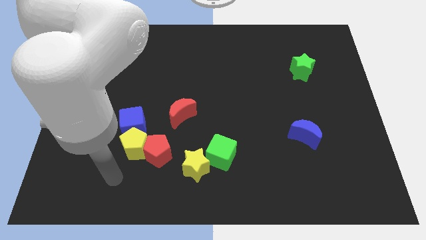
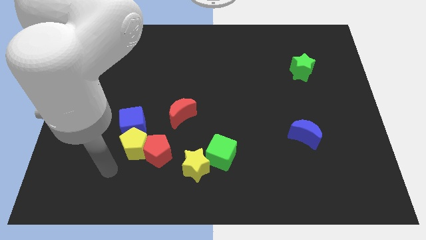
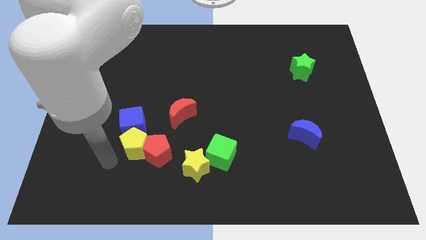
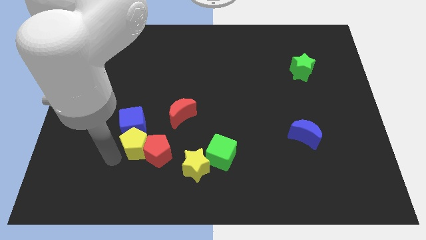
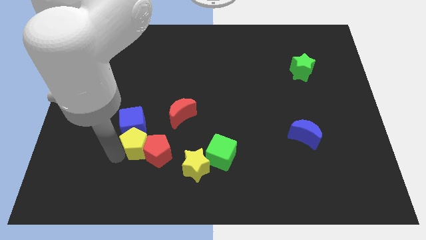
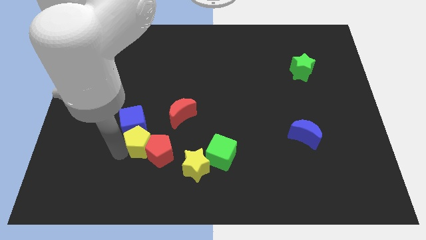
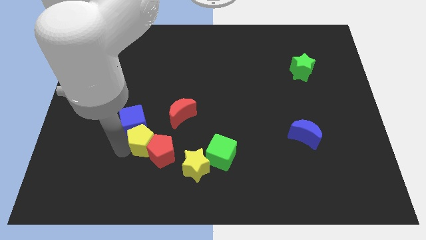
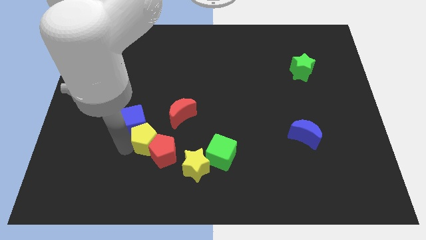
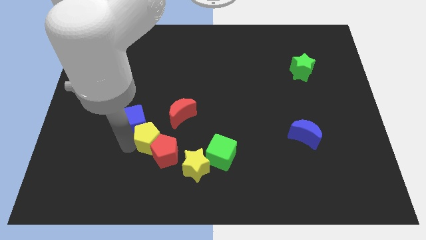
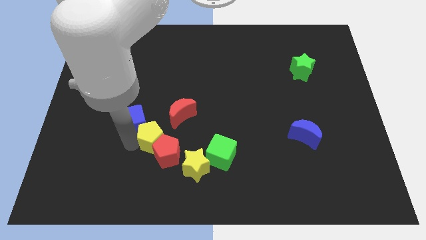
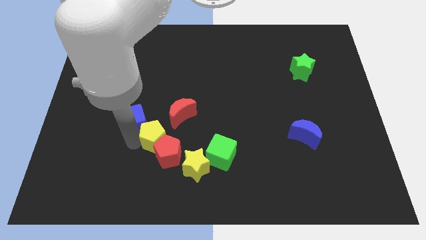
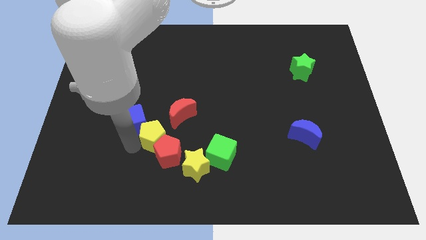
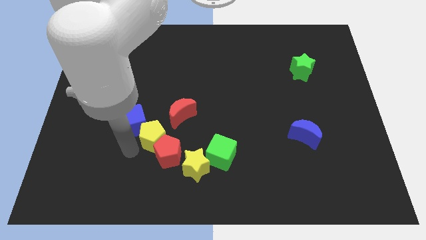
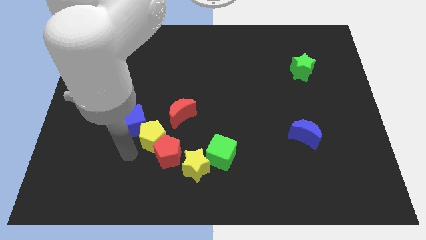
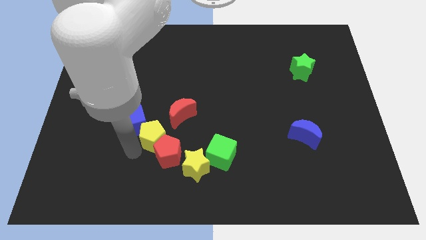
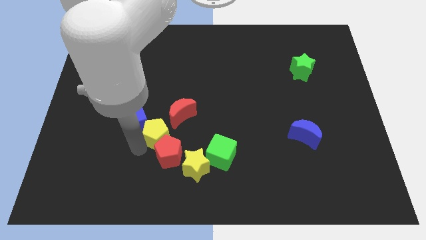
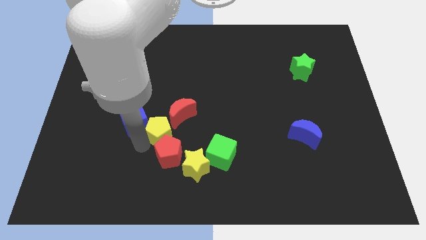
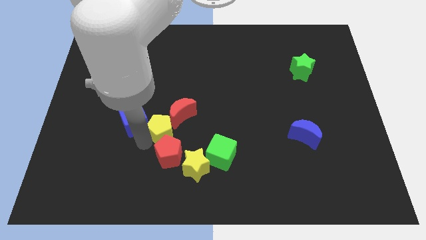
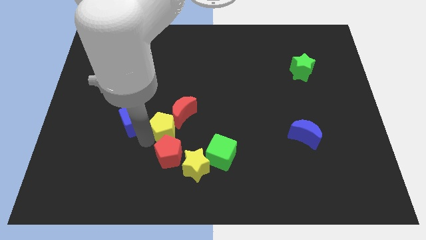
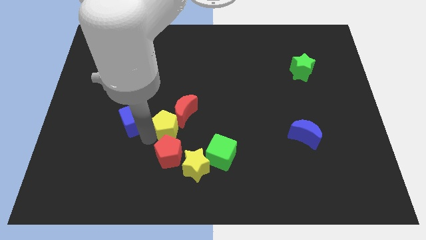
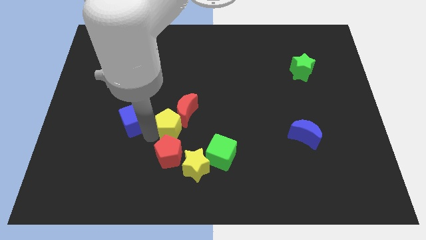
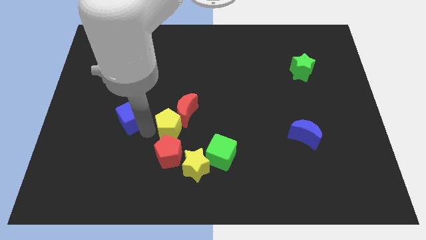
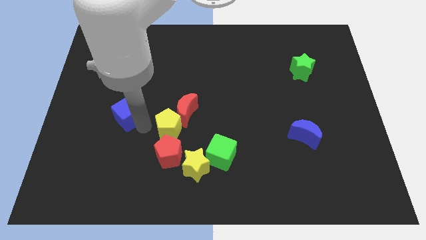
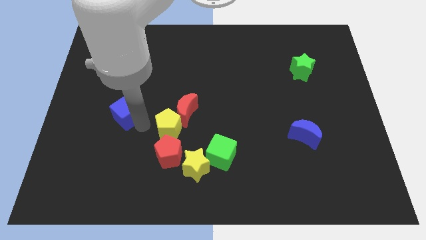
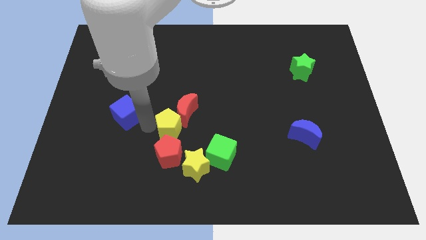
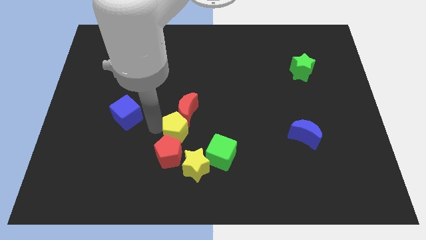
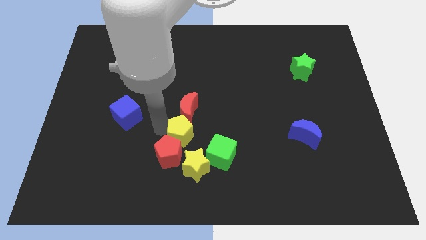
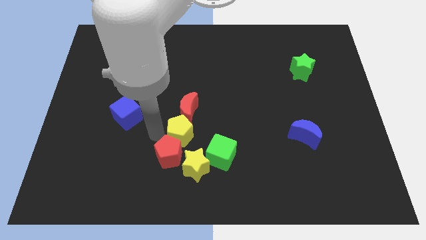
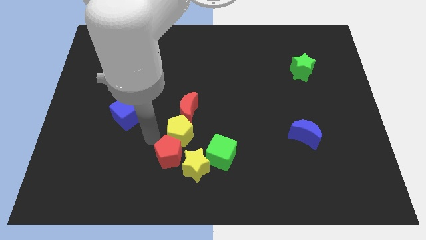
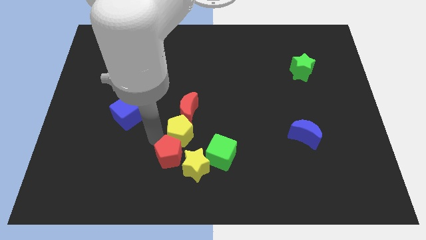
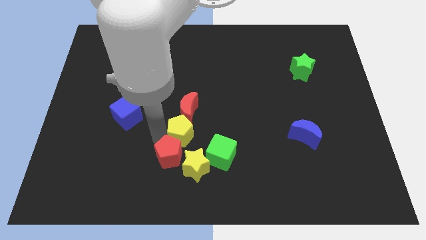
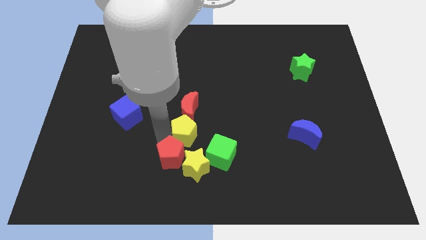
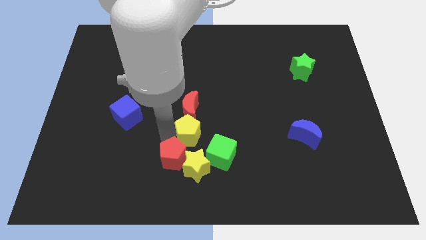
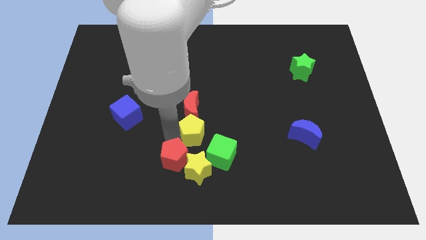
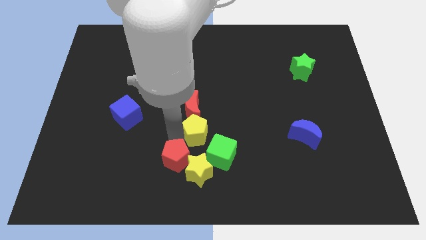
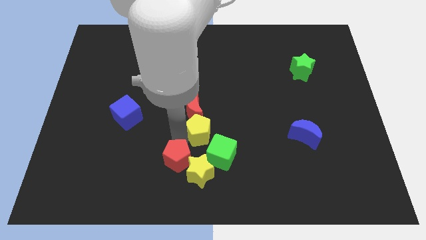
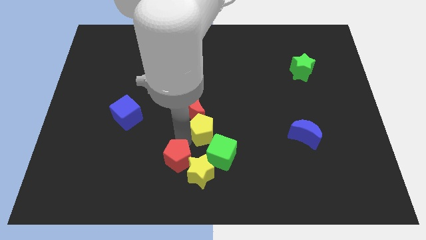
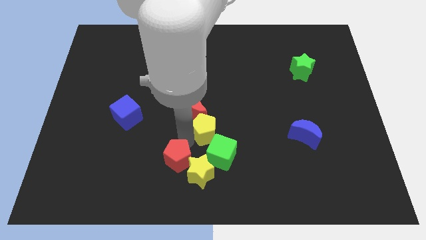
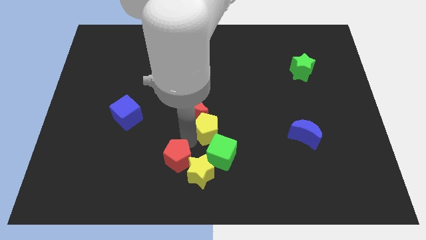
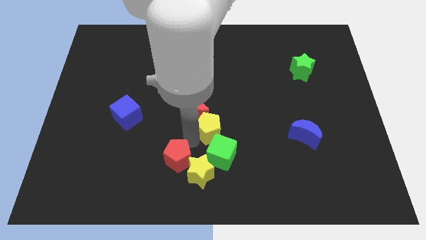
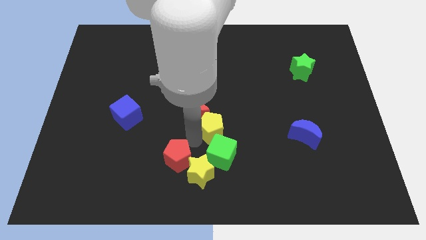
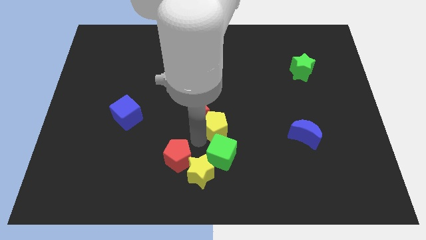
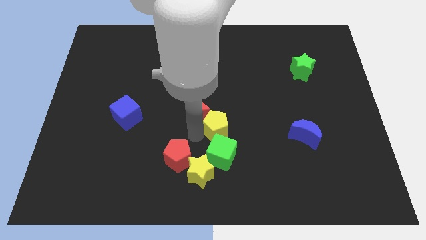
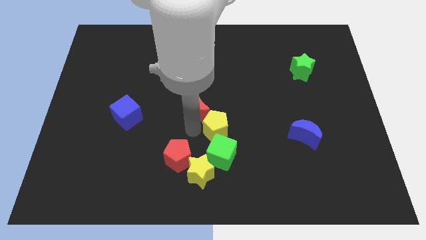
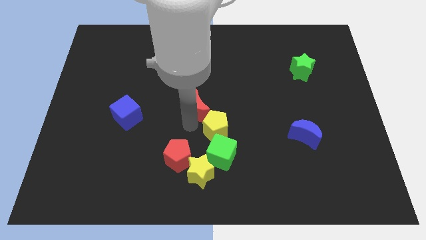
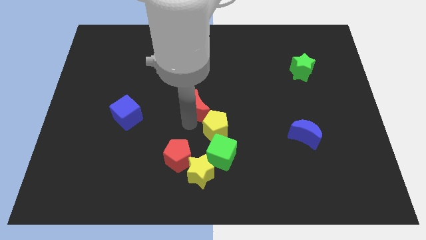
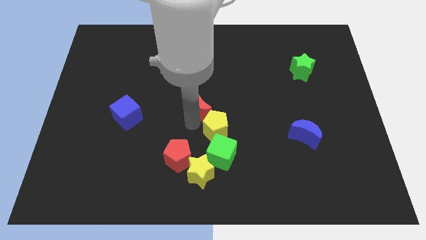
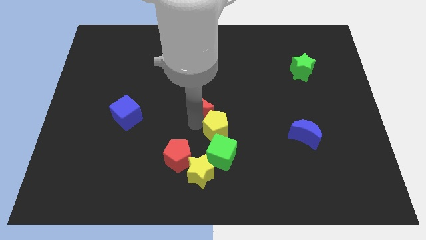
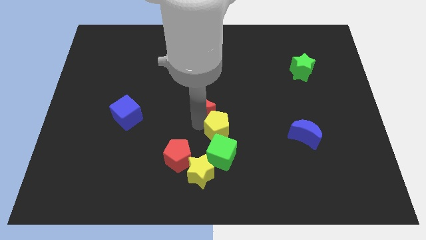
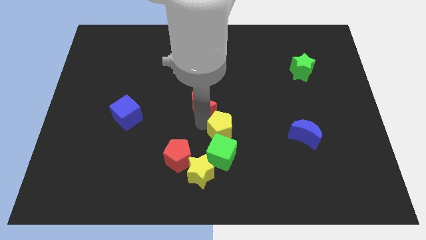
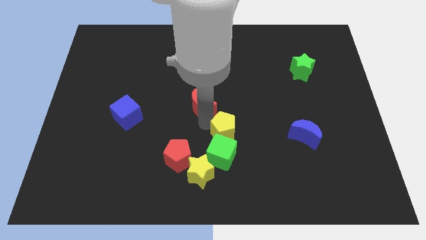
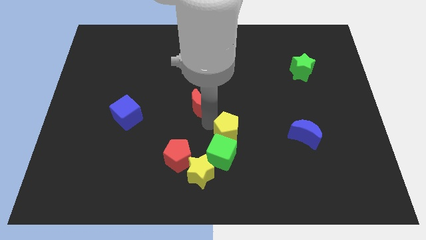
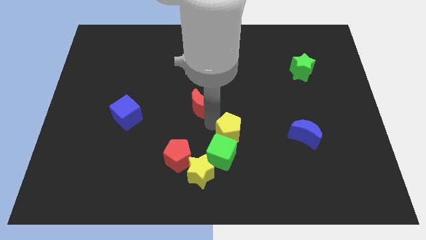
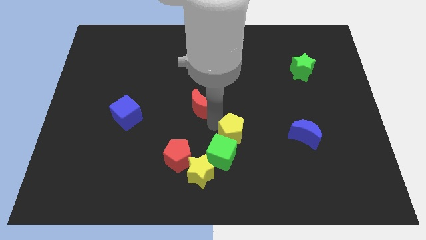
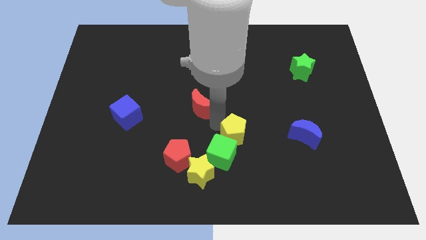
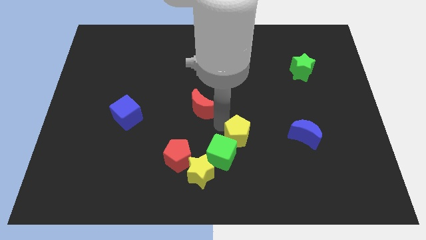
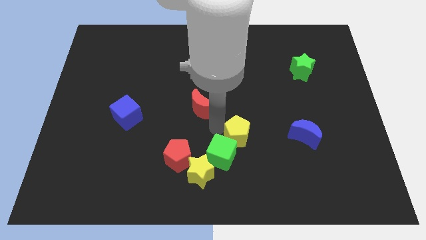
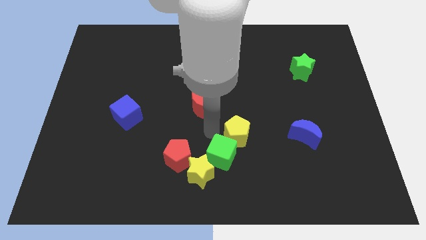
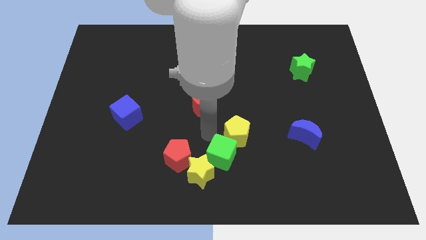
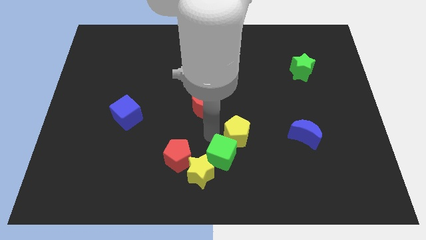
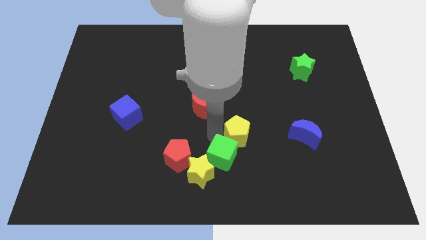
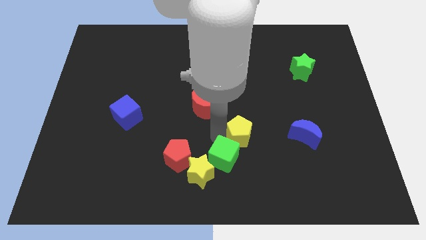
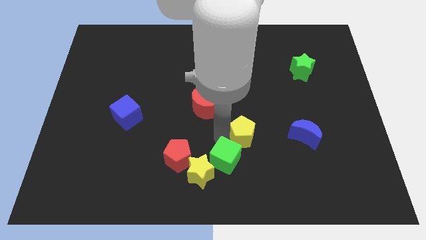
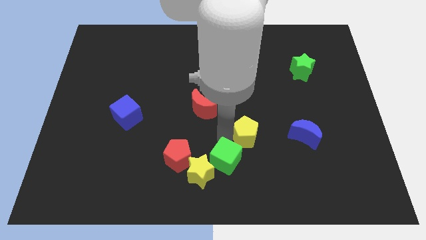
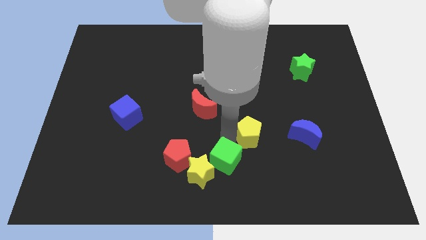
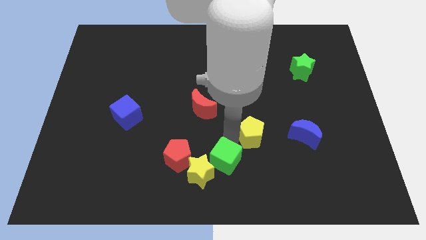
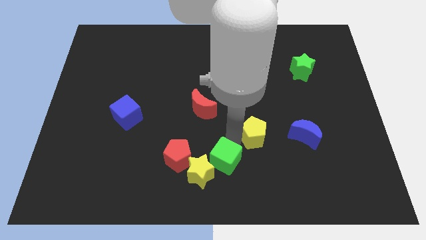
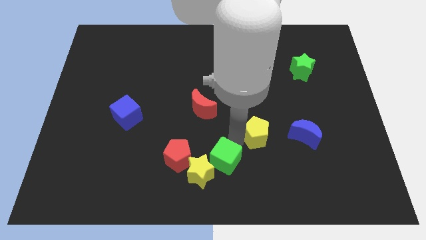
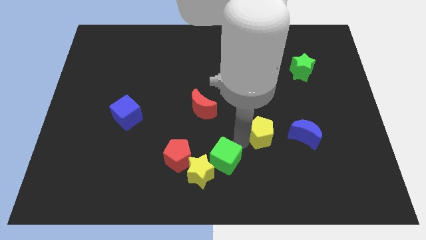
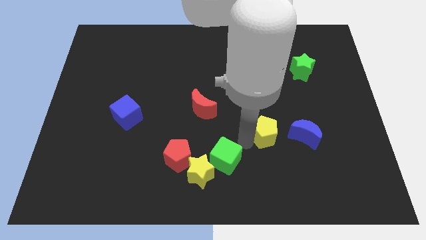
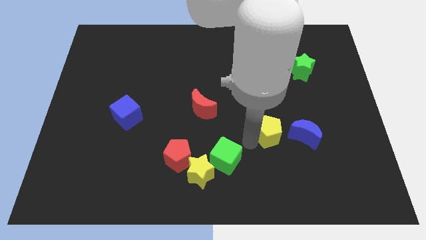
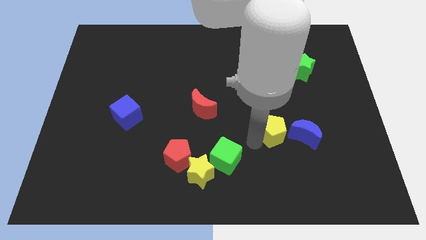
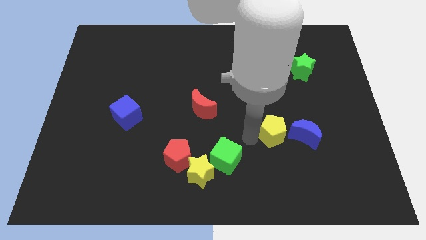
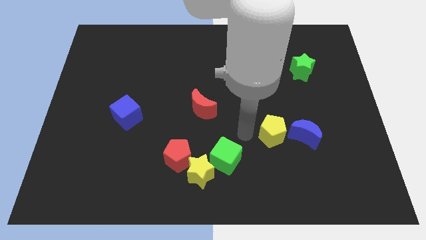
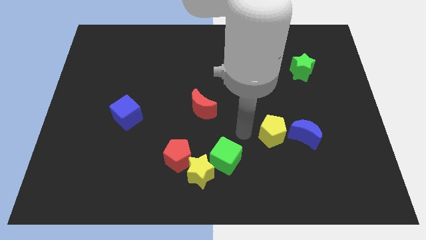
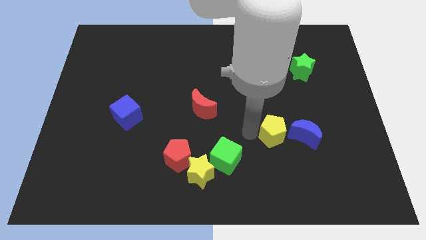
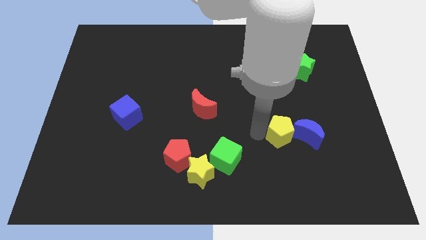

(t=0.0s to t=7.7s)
push the yellow pentagon close to the blue moon

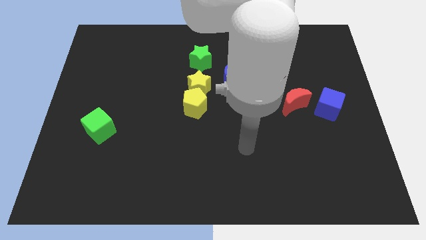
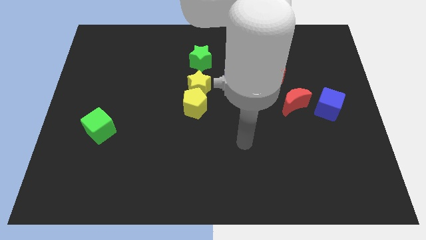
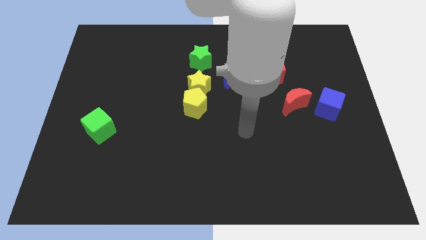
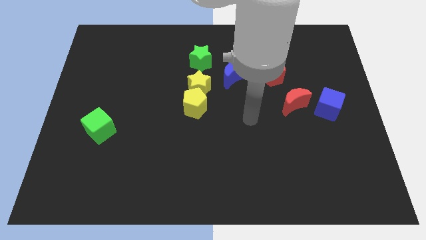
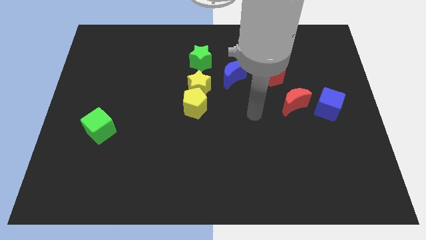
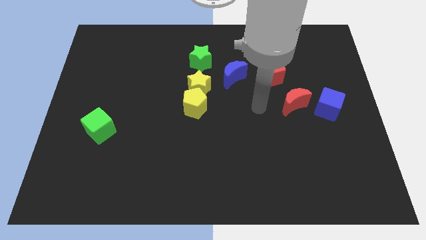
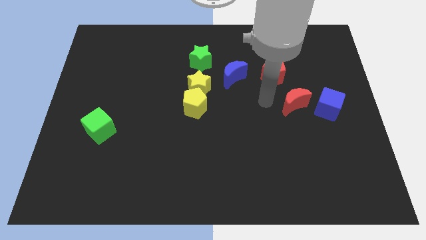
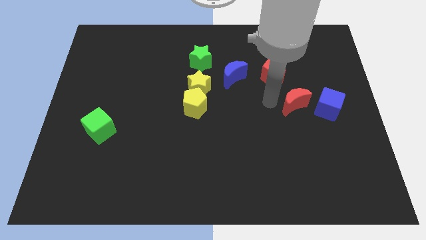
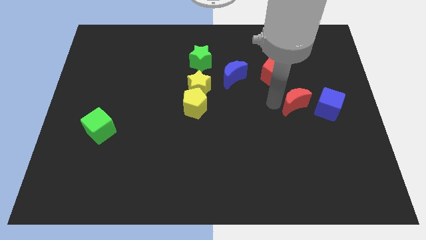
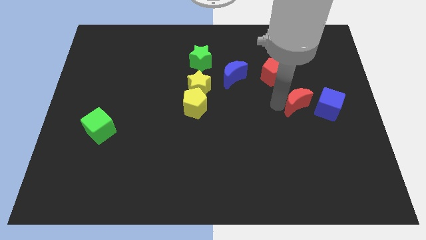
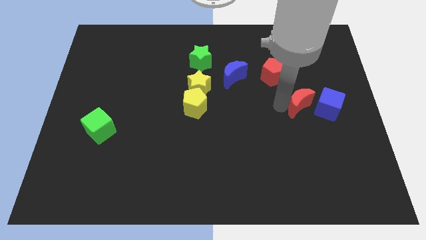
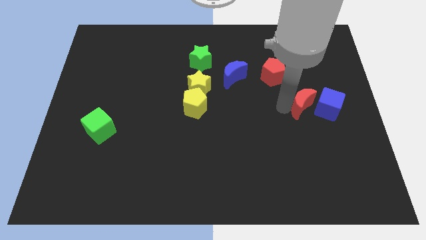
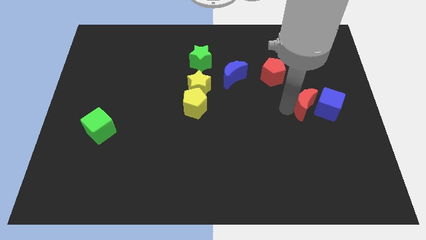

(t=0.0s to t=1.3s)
push the red moon close to the blue cube
